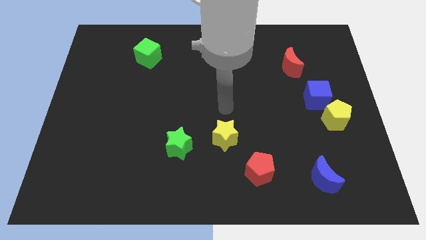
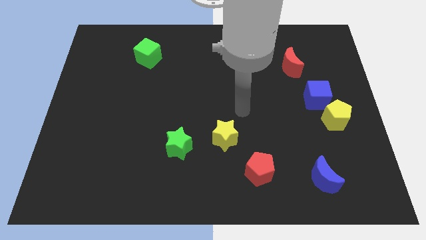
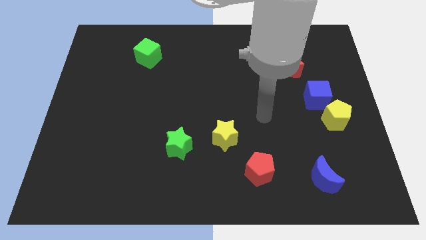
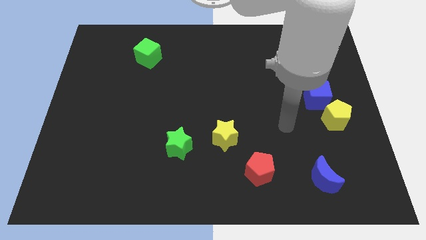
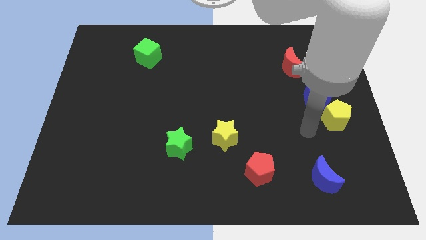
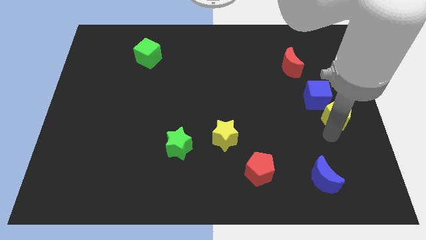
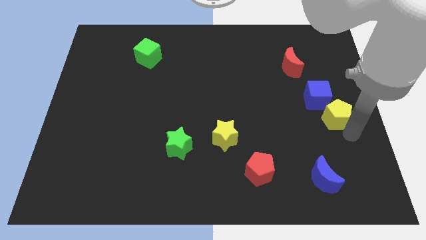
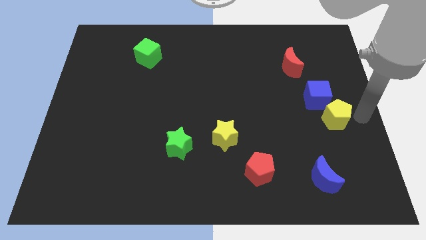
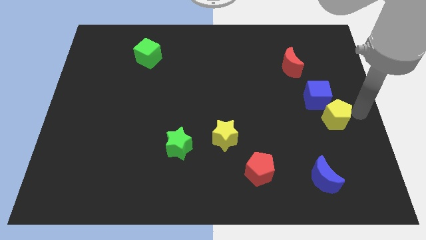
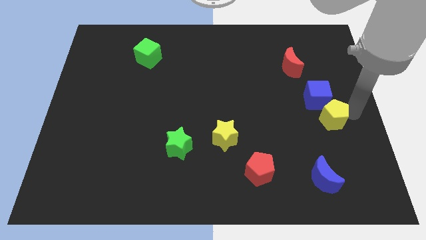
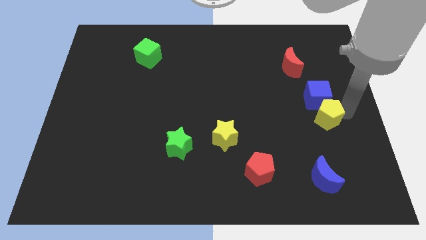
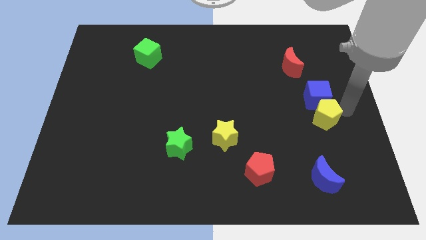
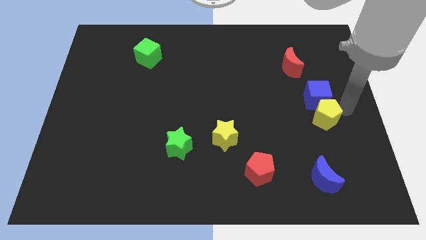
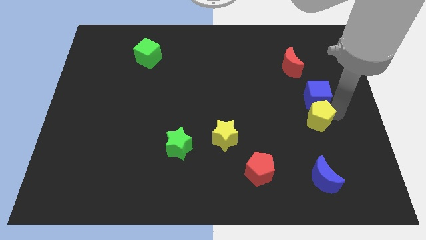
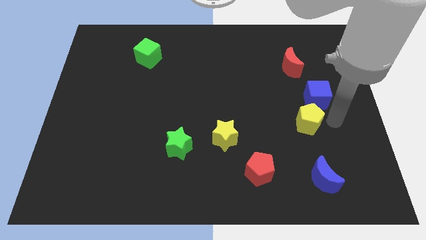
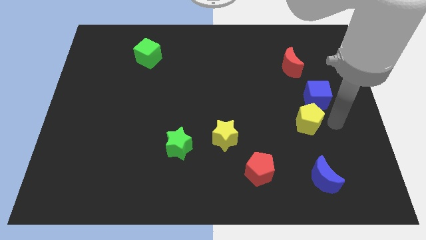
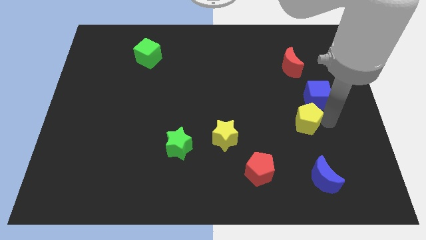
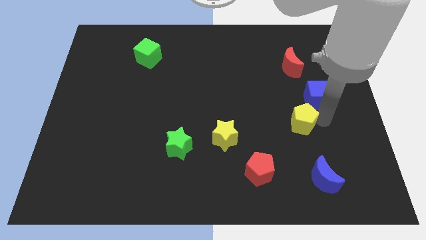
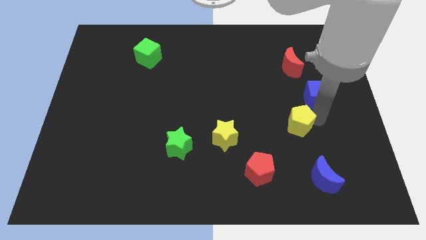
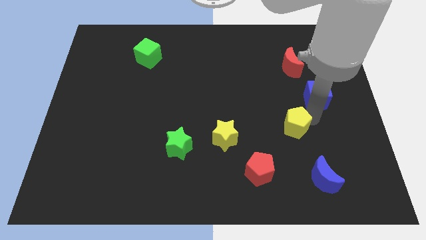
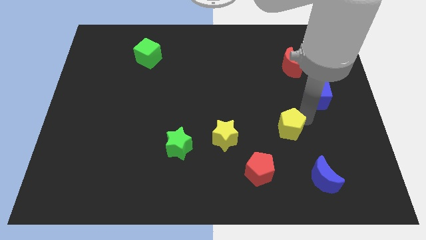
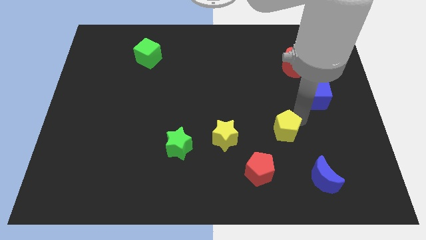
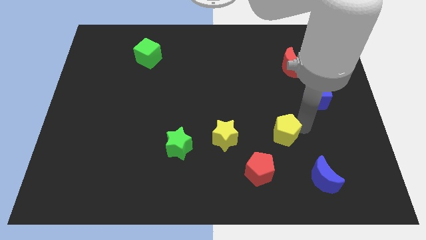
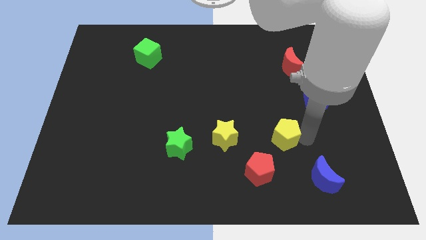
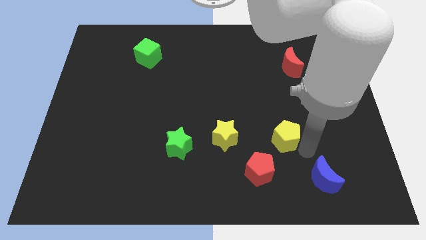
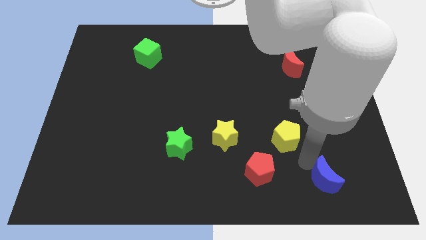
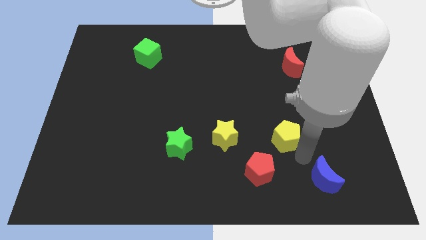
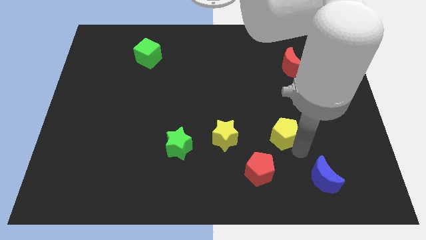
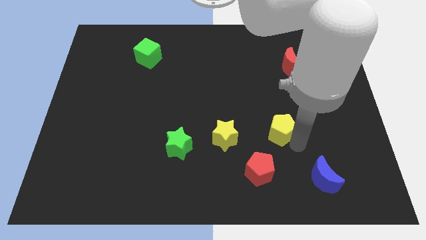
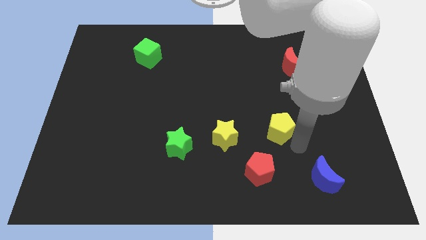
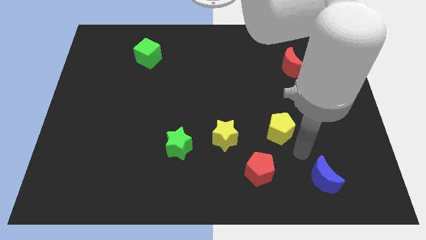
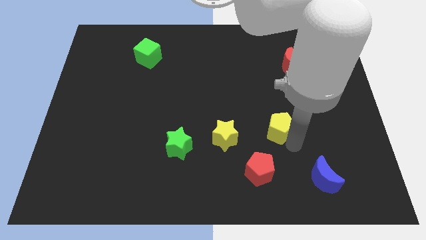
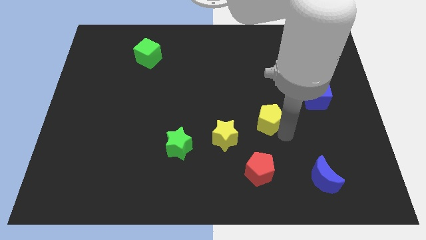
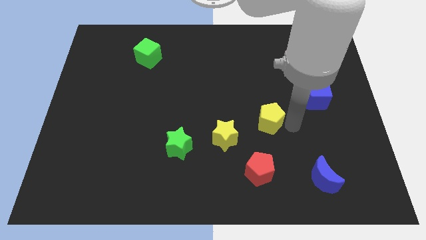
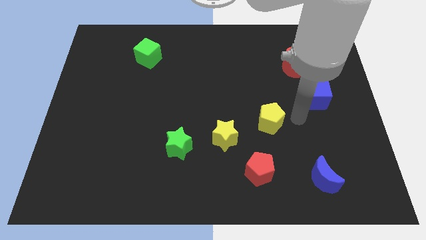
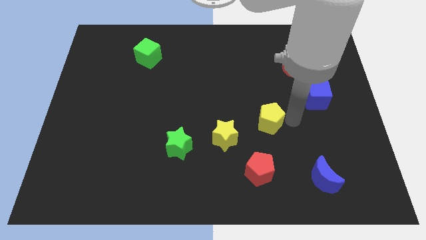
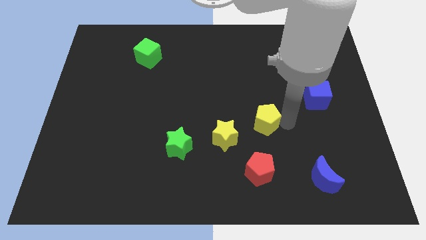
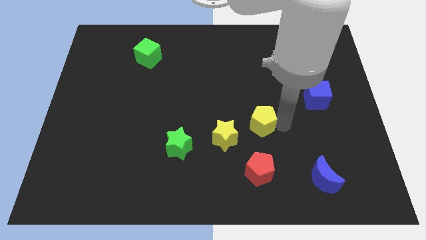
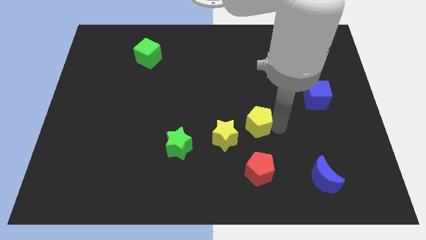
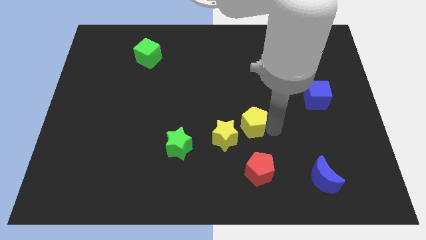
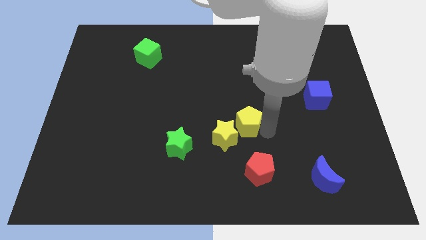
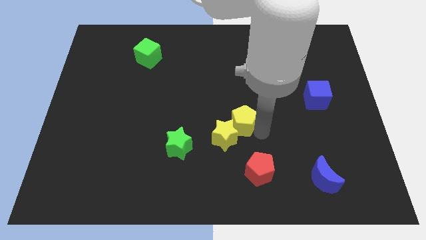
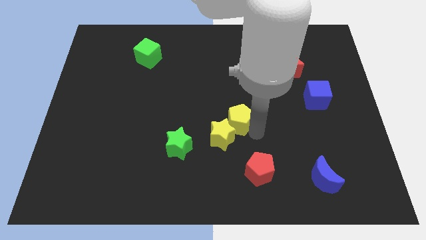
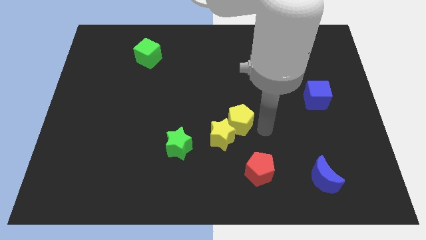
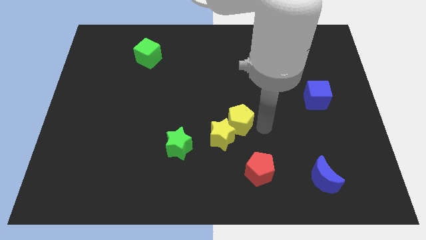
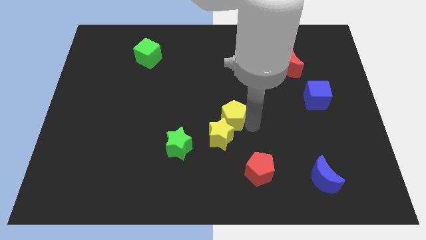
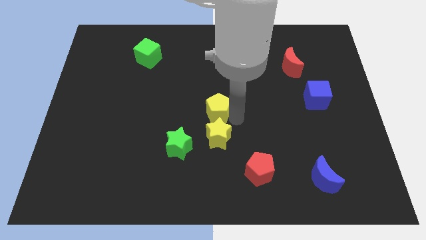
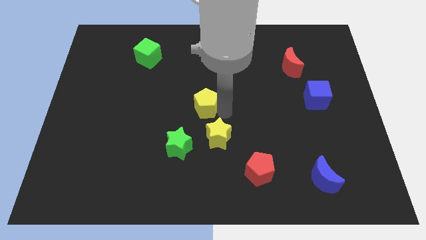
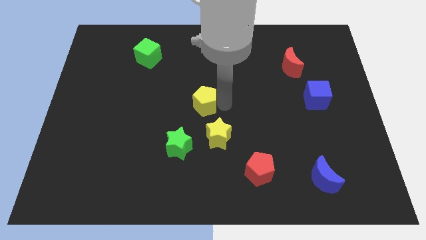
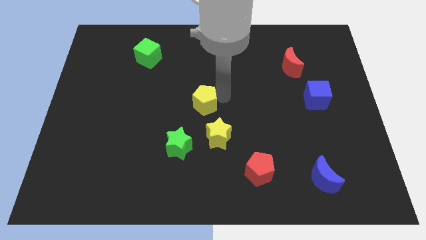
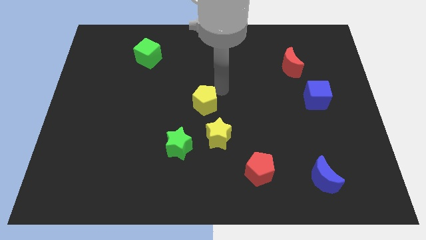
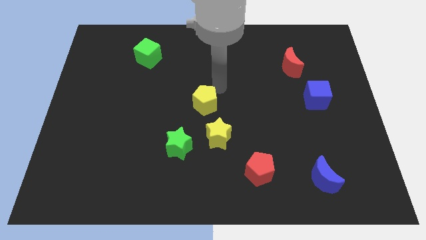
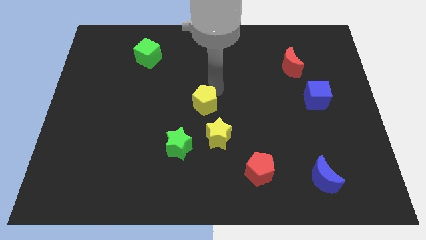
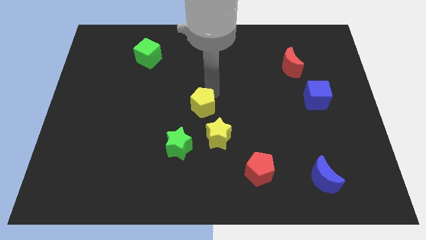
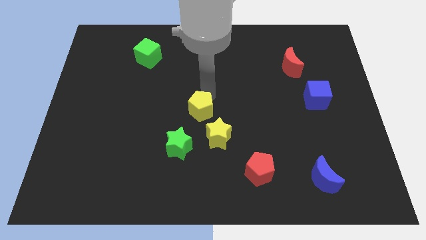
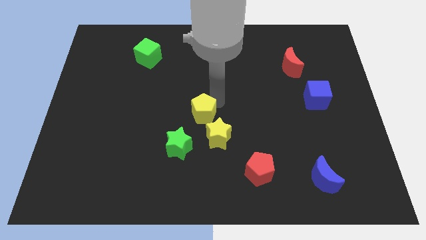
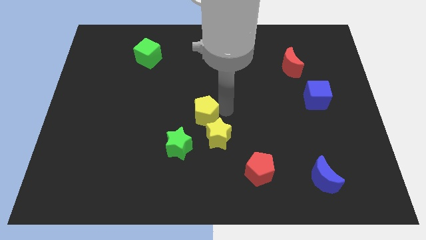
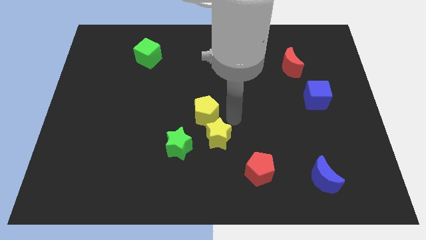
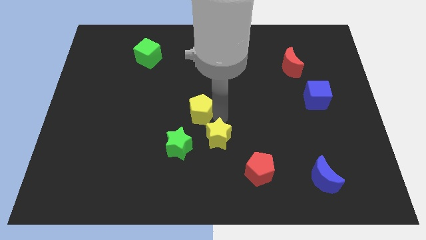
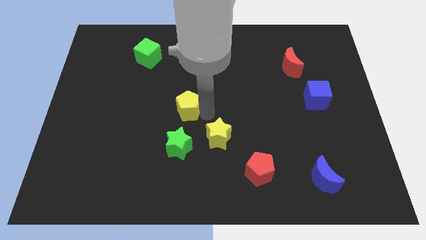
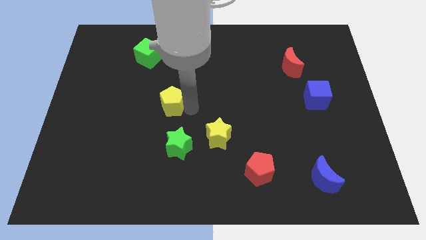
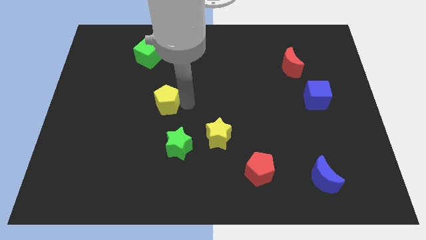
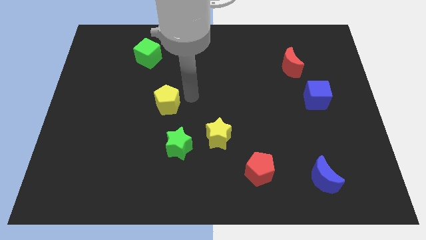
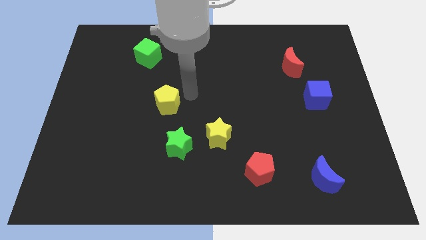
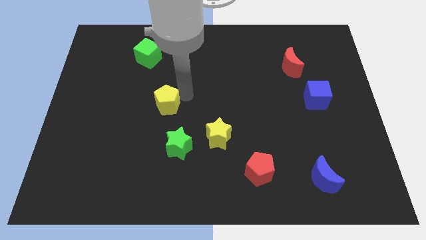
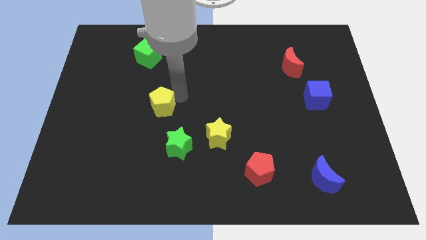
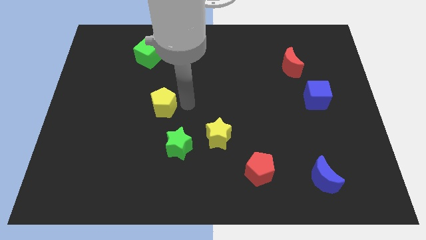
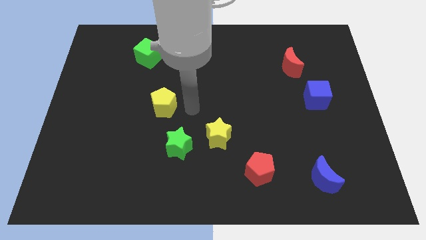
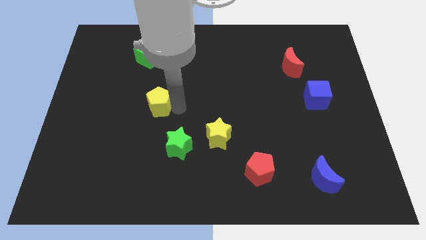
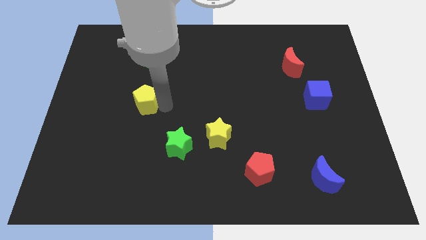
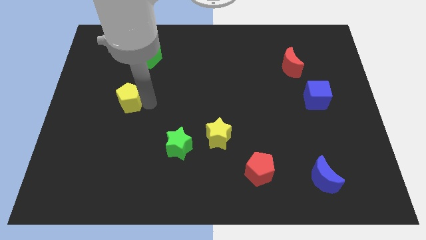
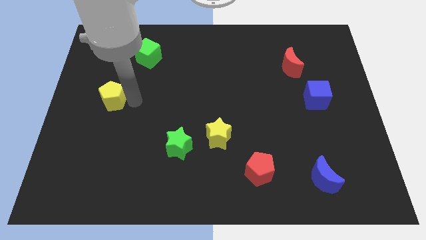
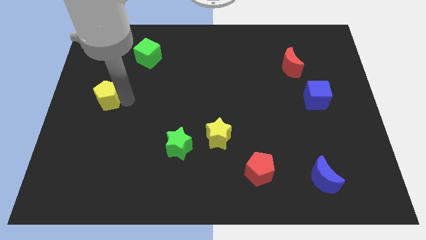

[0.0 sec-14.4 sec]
move the yellow pentagon to the left side of the board

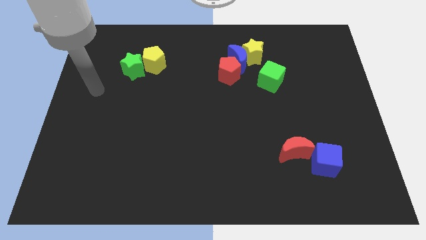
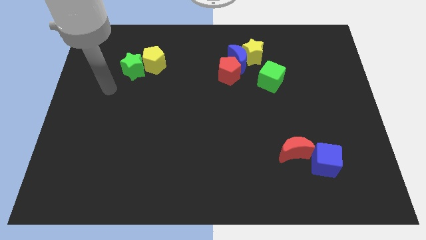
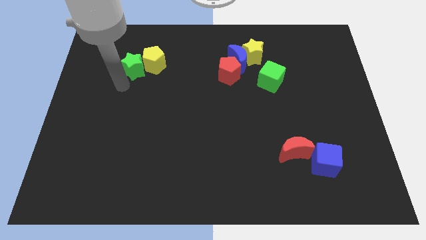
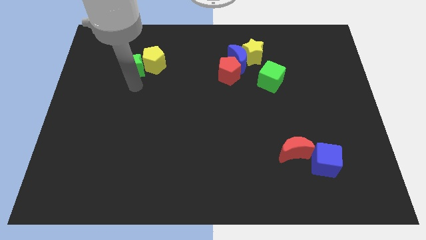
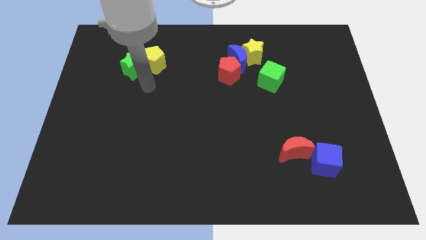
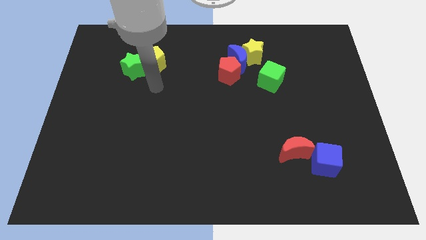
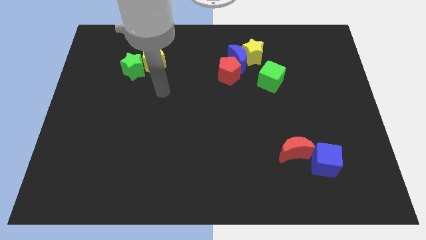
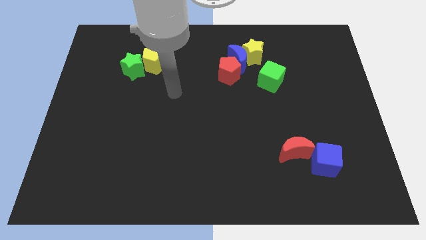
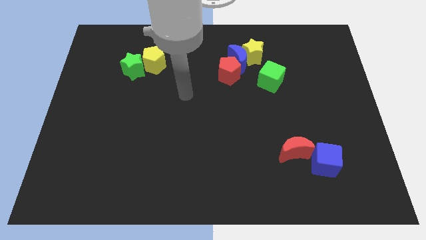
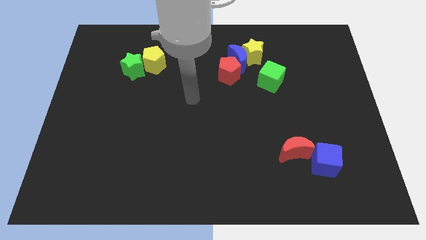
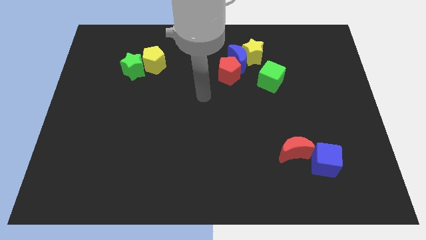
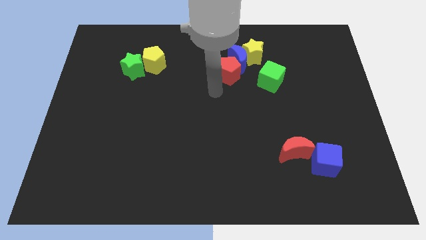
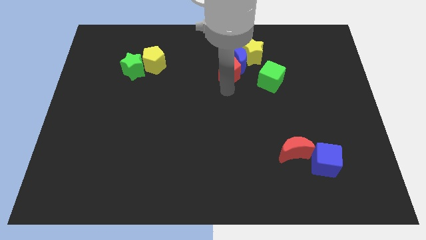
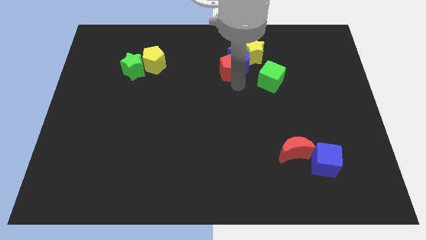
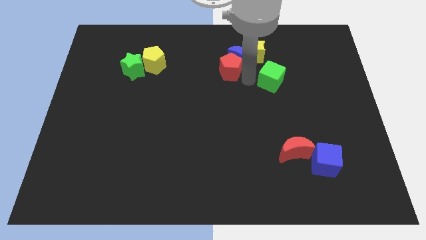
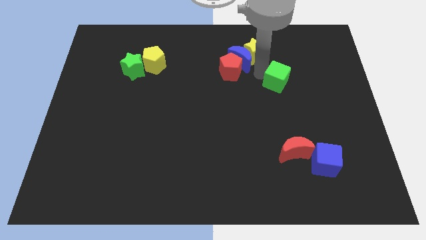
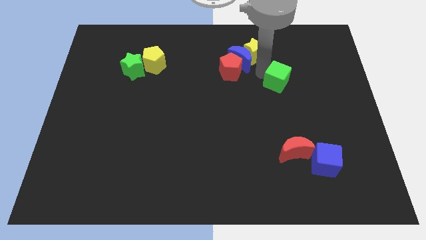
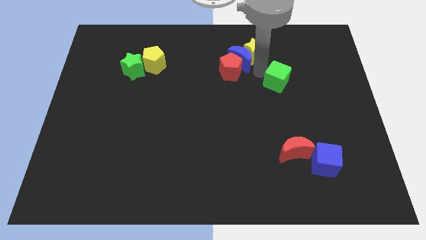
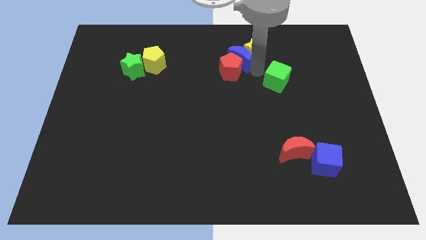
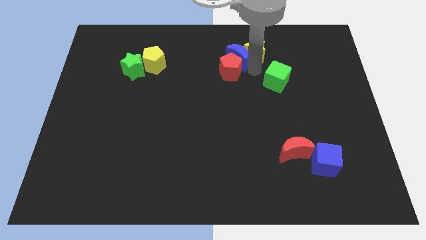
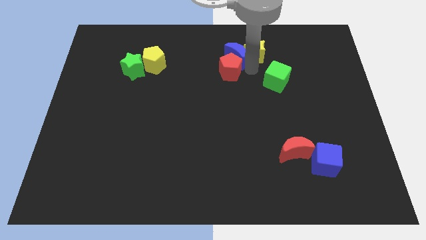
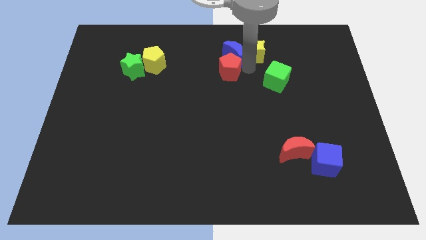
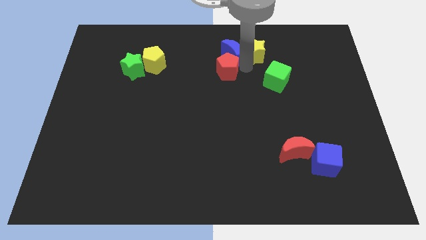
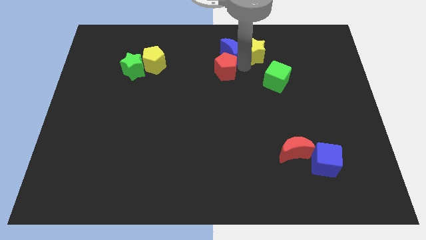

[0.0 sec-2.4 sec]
move the blue moon to the towards your base
